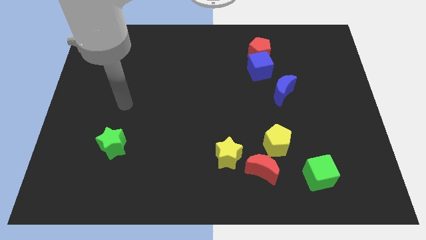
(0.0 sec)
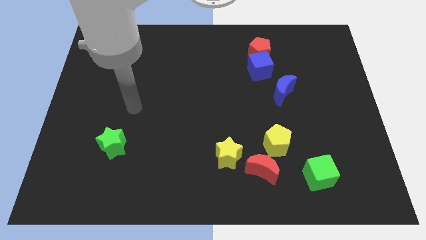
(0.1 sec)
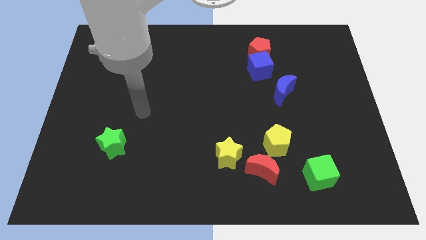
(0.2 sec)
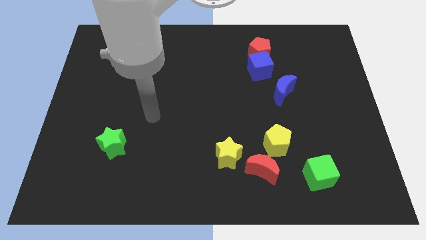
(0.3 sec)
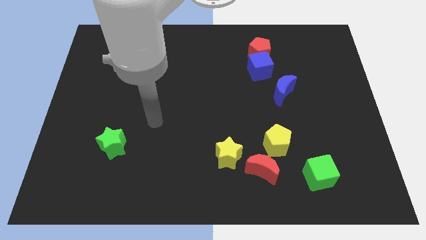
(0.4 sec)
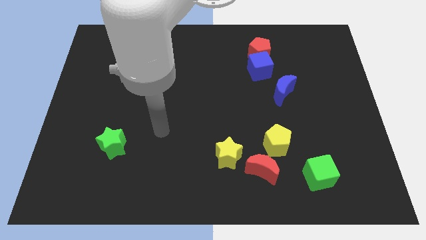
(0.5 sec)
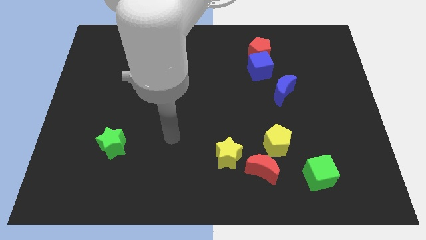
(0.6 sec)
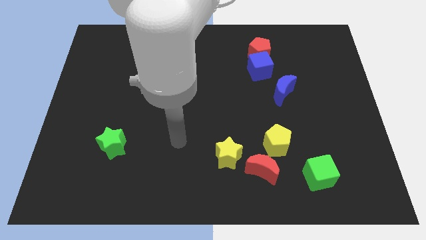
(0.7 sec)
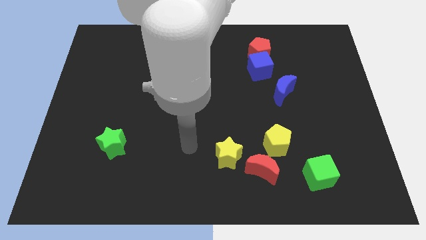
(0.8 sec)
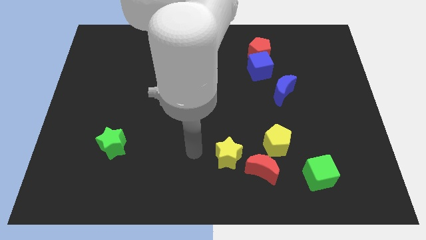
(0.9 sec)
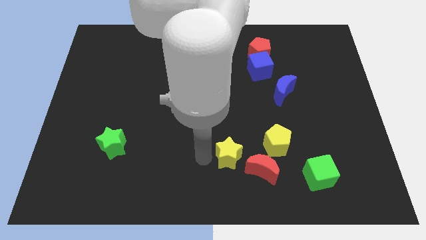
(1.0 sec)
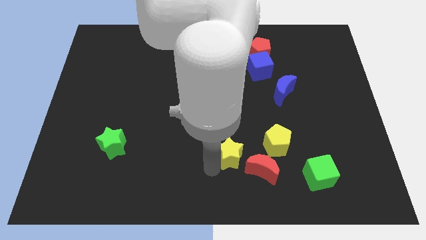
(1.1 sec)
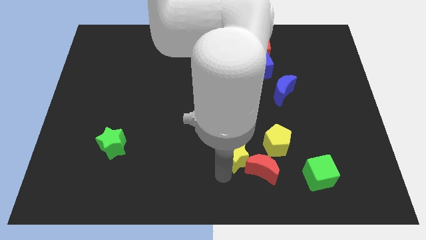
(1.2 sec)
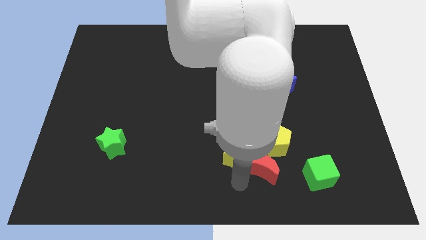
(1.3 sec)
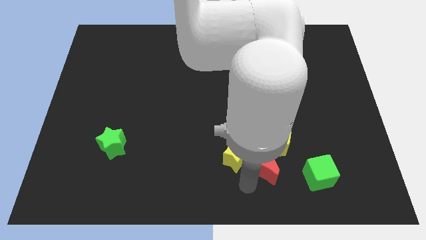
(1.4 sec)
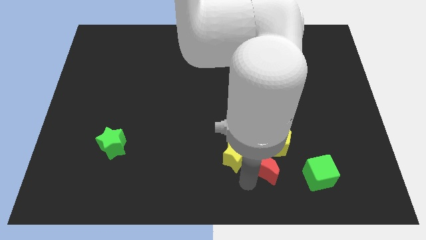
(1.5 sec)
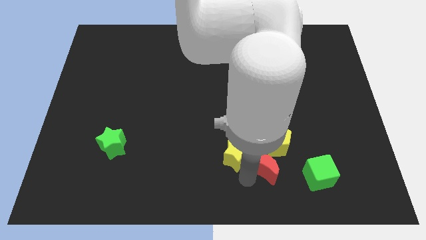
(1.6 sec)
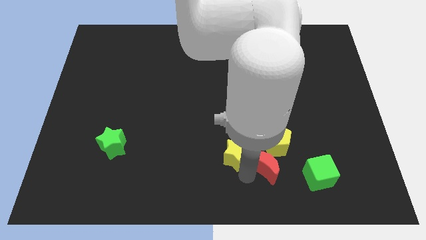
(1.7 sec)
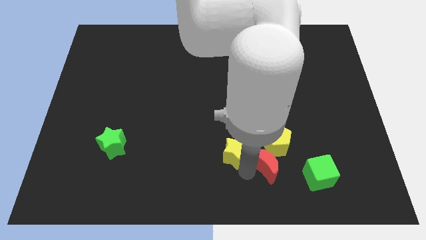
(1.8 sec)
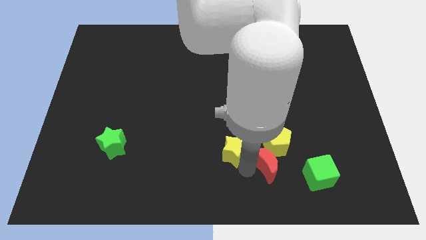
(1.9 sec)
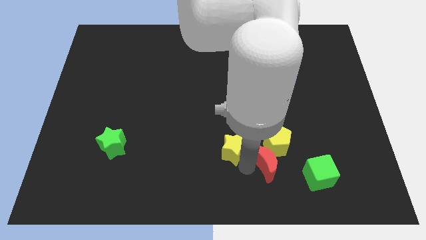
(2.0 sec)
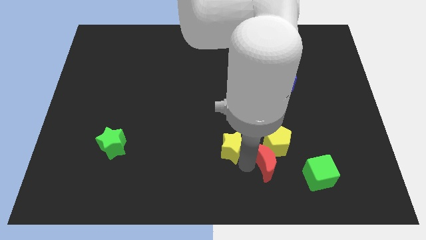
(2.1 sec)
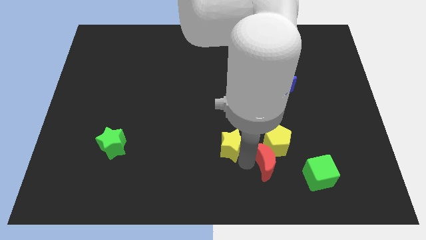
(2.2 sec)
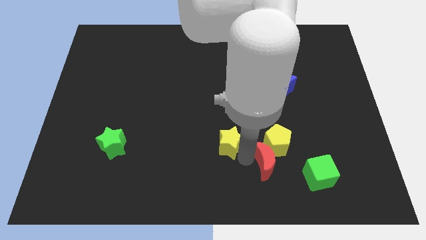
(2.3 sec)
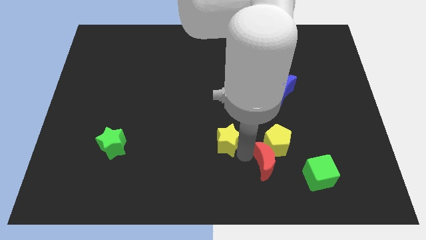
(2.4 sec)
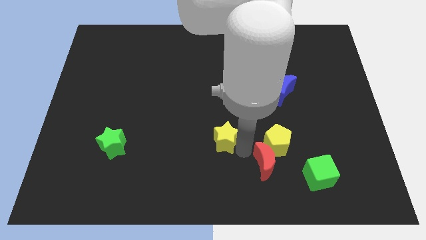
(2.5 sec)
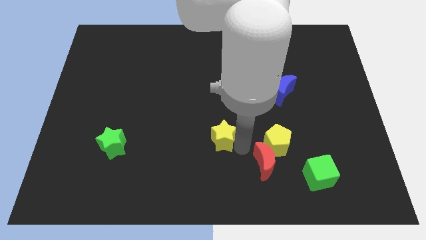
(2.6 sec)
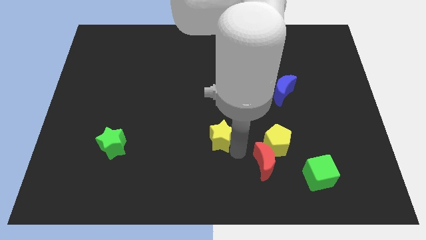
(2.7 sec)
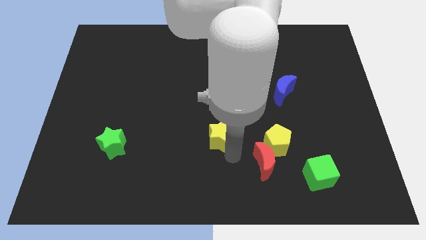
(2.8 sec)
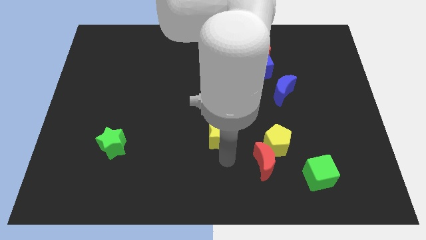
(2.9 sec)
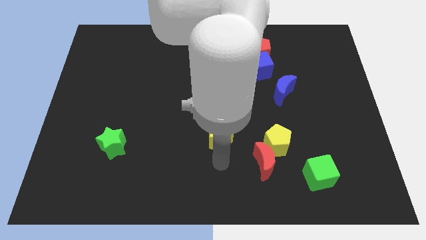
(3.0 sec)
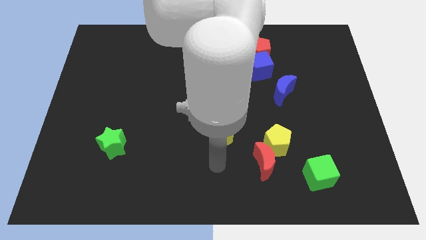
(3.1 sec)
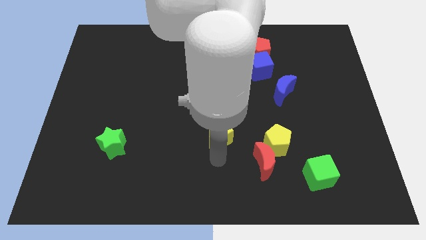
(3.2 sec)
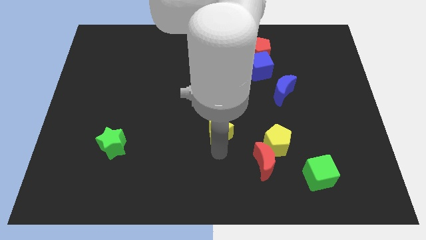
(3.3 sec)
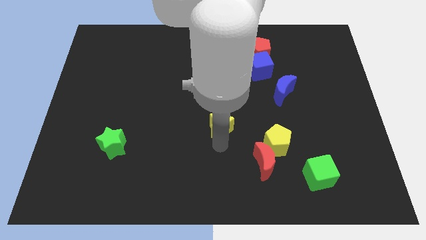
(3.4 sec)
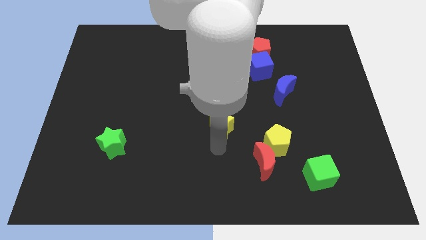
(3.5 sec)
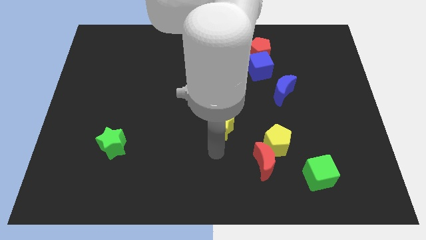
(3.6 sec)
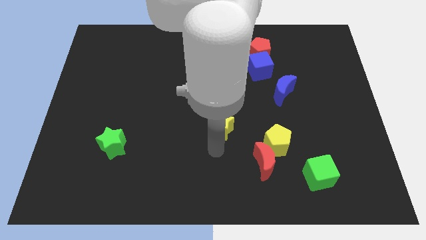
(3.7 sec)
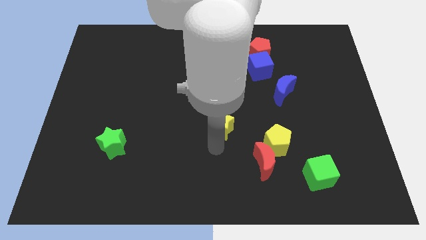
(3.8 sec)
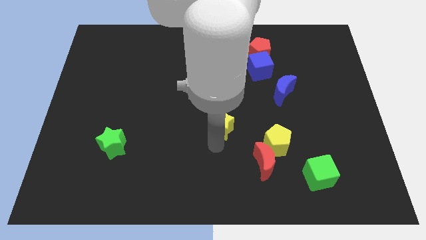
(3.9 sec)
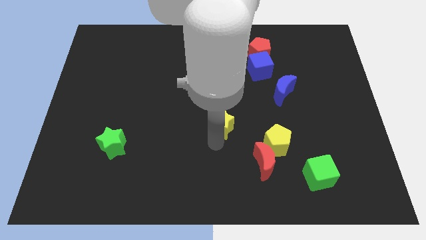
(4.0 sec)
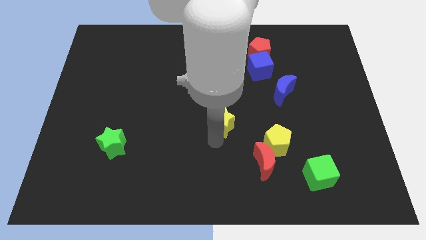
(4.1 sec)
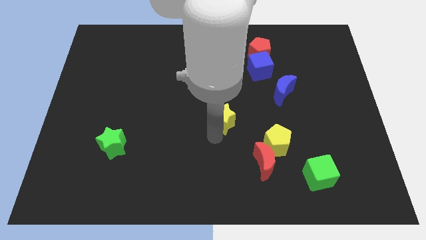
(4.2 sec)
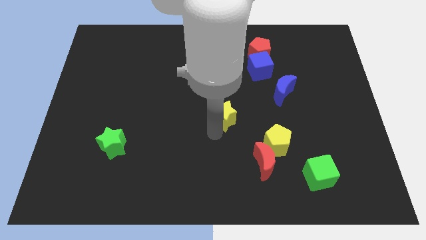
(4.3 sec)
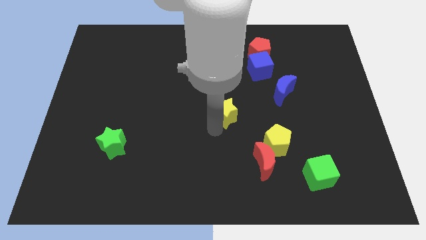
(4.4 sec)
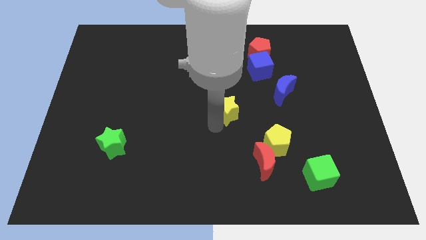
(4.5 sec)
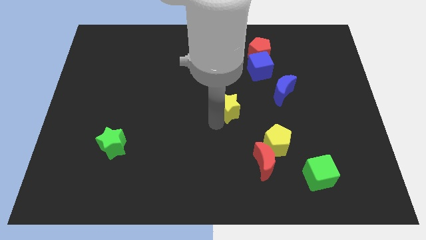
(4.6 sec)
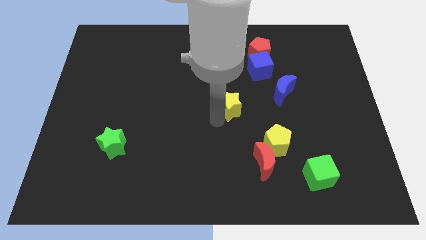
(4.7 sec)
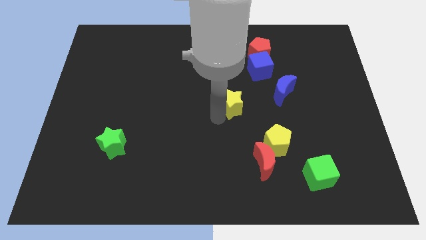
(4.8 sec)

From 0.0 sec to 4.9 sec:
put the yellow star left of the blue moon

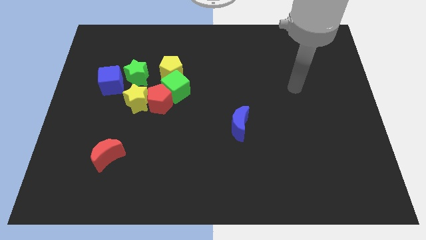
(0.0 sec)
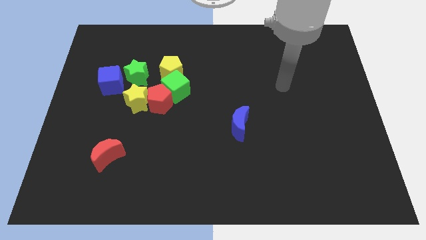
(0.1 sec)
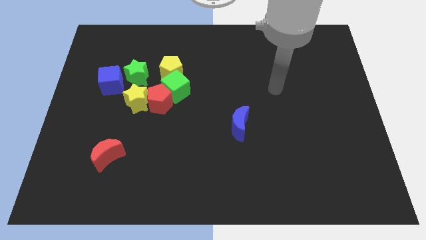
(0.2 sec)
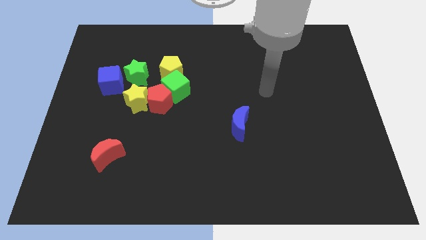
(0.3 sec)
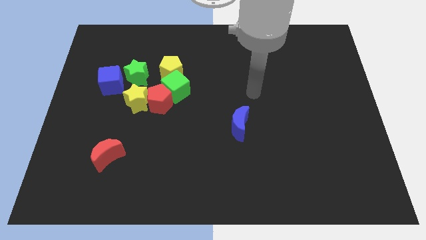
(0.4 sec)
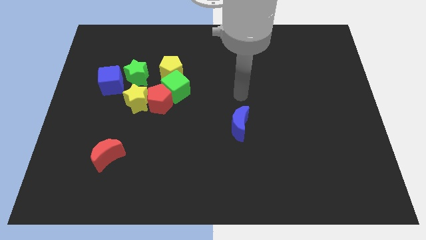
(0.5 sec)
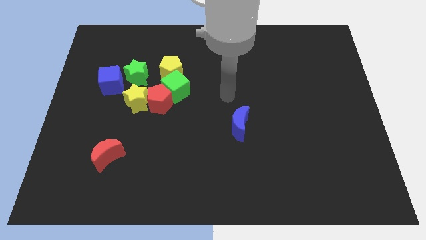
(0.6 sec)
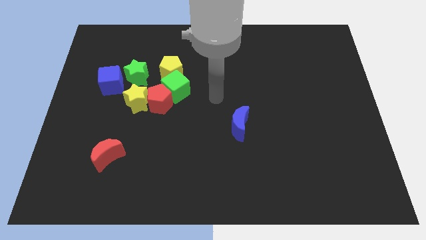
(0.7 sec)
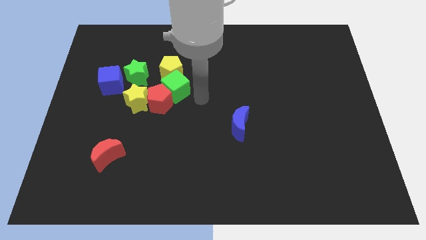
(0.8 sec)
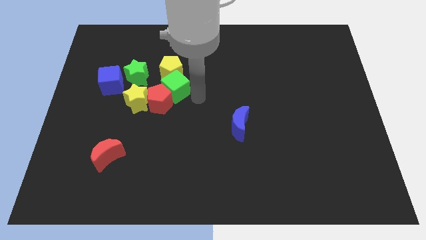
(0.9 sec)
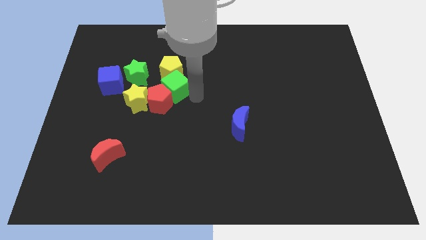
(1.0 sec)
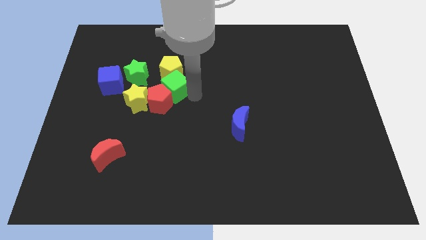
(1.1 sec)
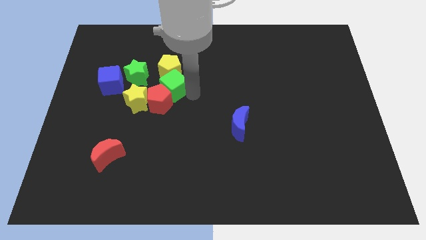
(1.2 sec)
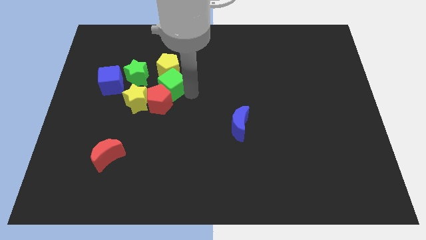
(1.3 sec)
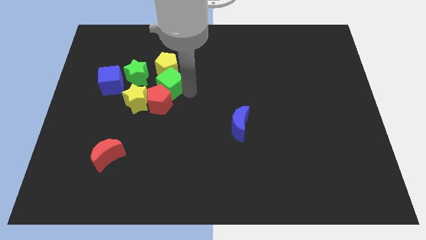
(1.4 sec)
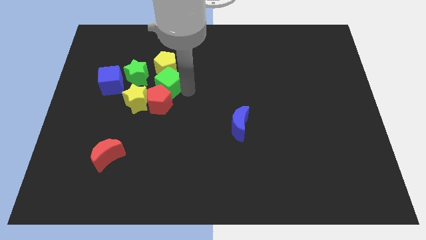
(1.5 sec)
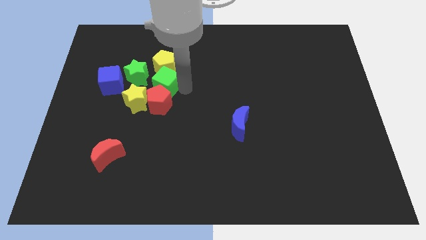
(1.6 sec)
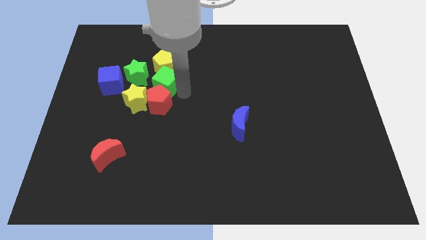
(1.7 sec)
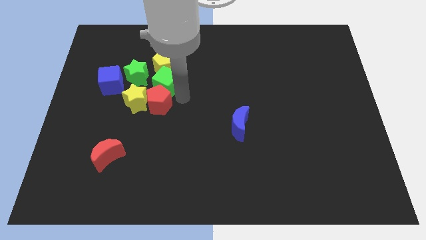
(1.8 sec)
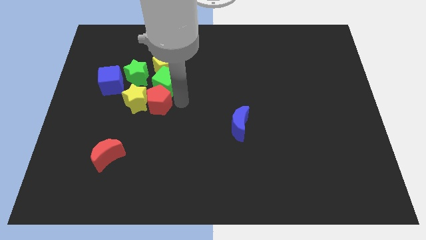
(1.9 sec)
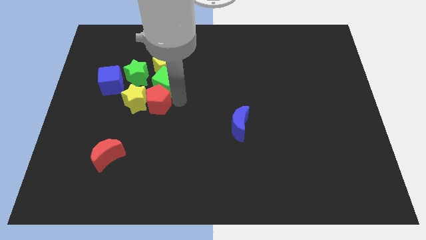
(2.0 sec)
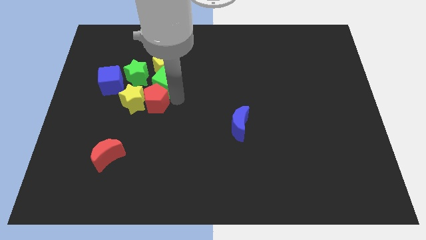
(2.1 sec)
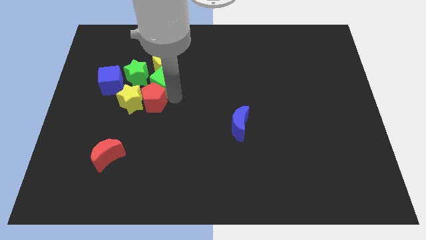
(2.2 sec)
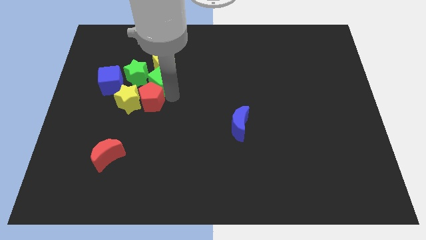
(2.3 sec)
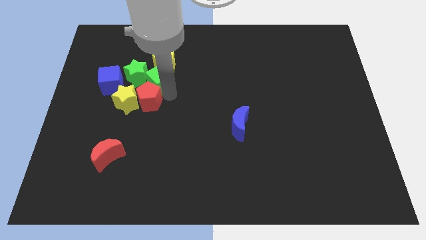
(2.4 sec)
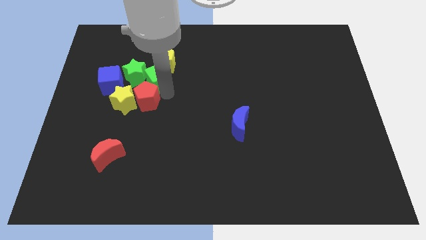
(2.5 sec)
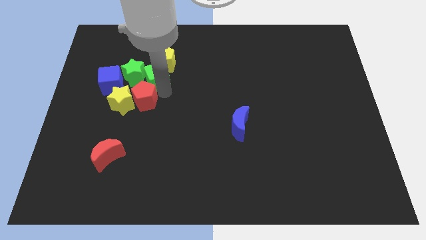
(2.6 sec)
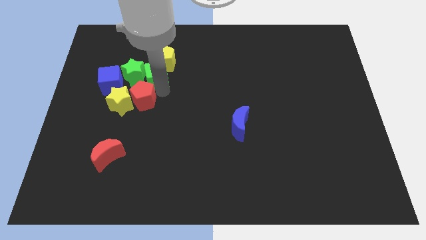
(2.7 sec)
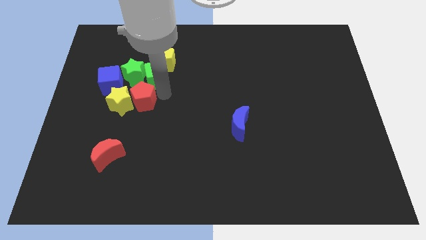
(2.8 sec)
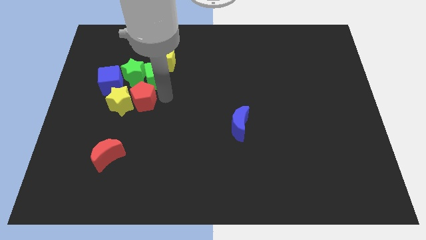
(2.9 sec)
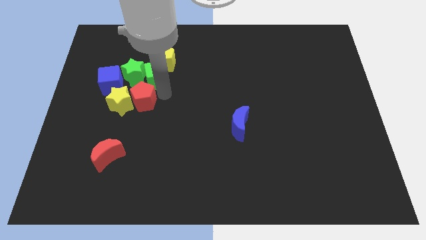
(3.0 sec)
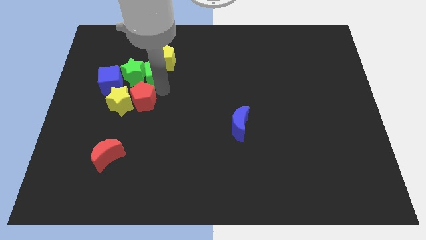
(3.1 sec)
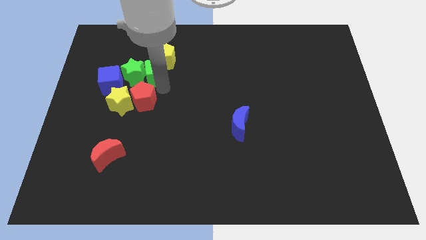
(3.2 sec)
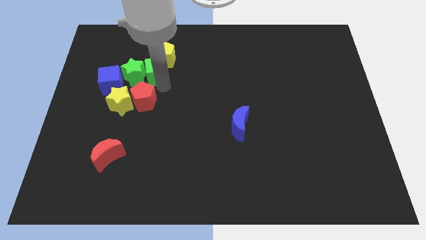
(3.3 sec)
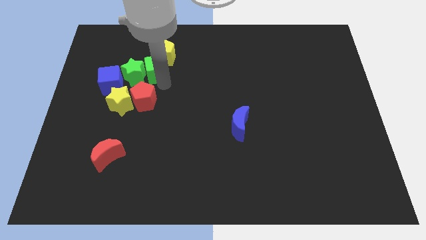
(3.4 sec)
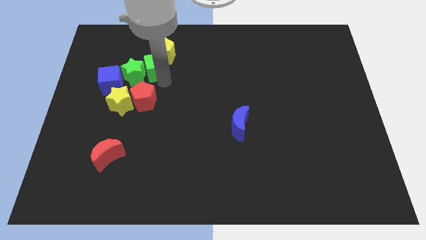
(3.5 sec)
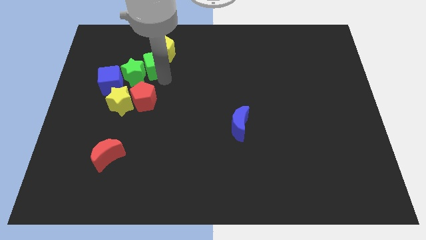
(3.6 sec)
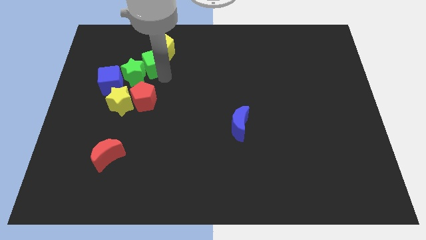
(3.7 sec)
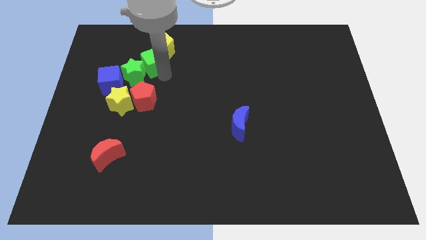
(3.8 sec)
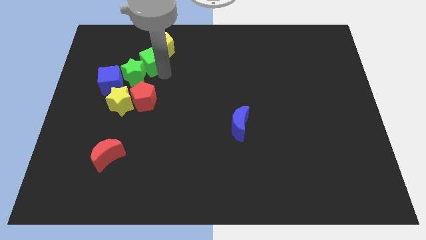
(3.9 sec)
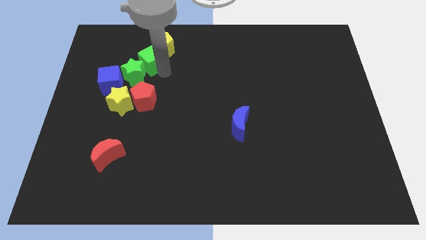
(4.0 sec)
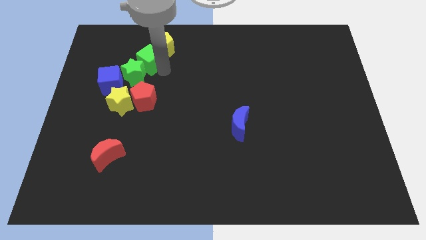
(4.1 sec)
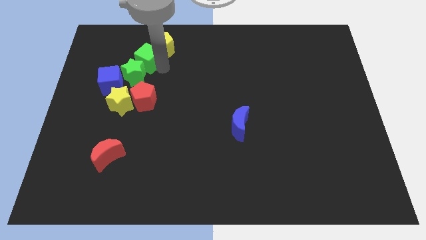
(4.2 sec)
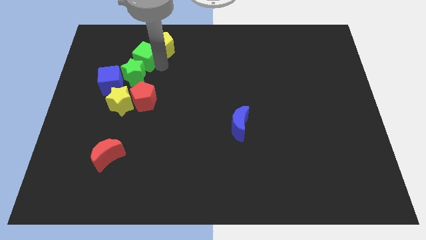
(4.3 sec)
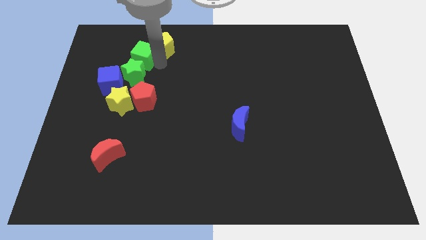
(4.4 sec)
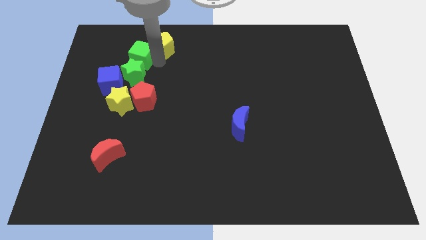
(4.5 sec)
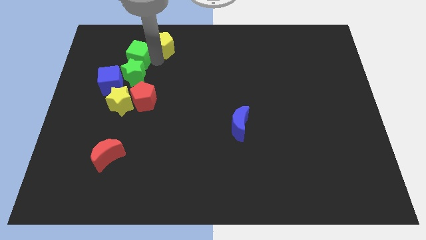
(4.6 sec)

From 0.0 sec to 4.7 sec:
push the green cube to the top left side of the green star
